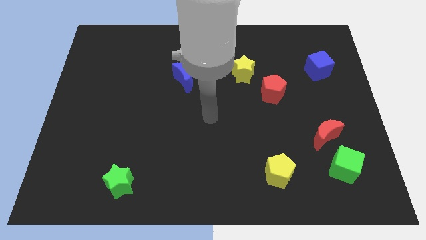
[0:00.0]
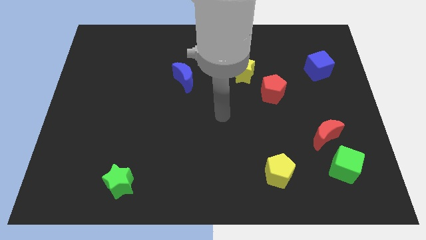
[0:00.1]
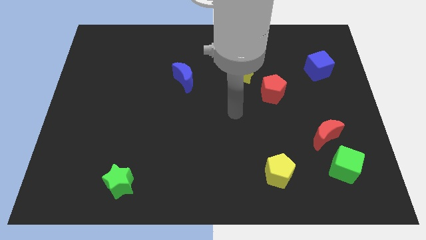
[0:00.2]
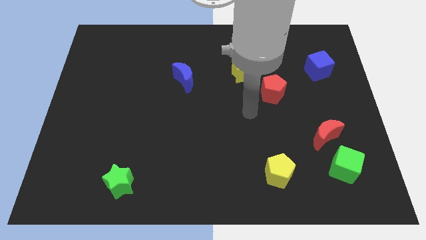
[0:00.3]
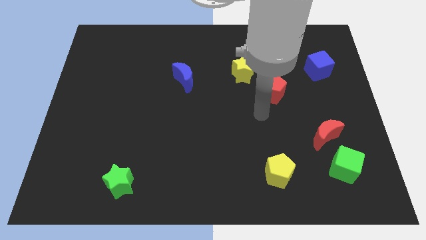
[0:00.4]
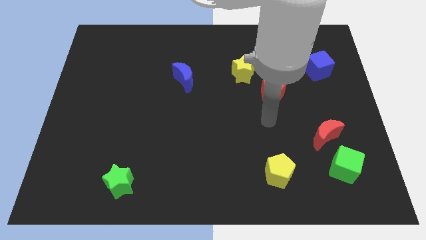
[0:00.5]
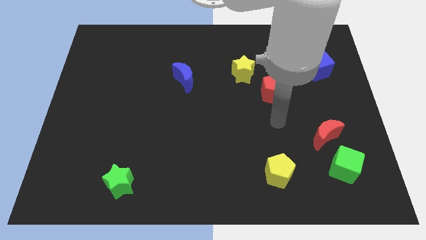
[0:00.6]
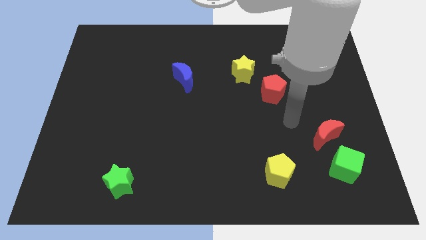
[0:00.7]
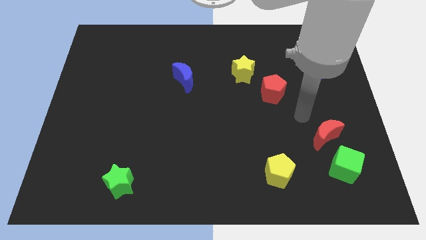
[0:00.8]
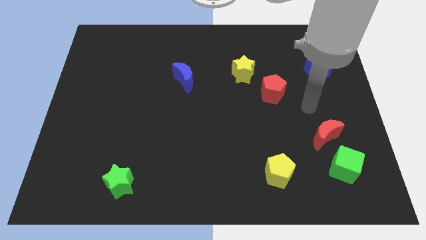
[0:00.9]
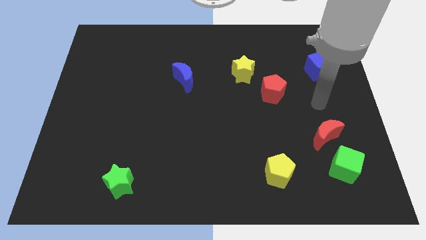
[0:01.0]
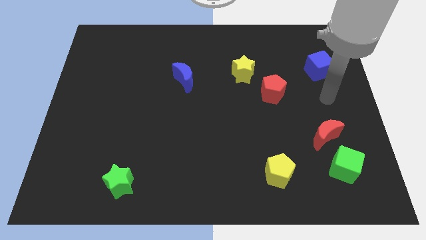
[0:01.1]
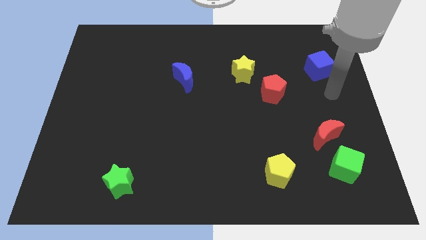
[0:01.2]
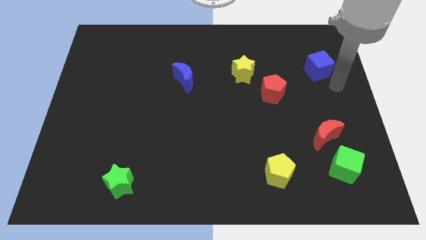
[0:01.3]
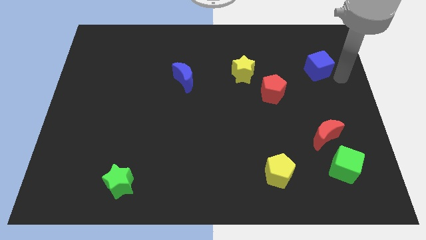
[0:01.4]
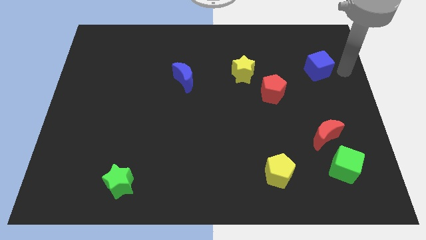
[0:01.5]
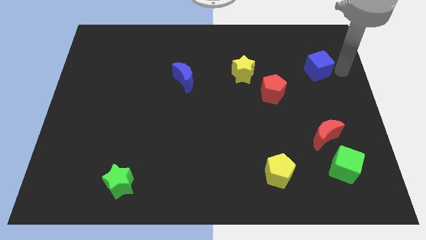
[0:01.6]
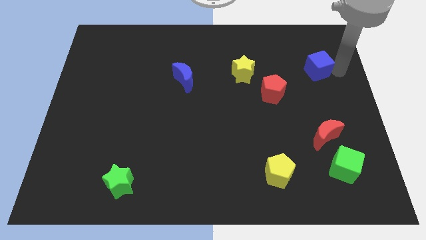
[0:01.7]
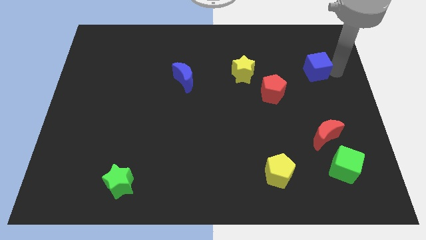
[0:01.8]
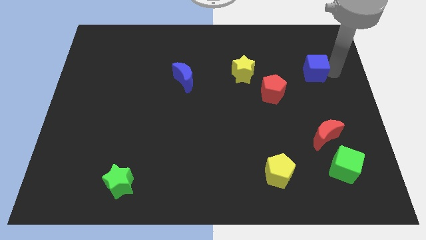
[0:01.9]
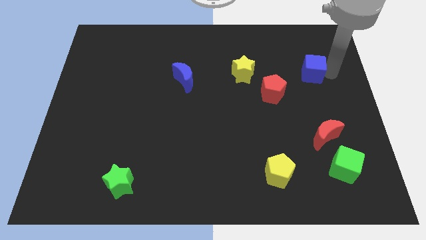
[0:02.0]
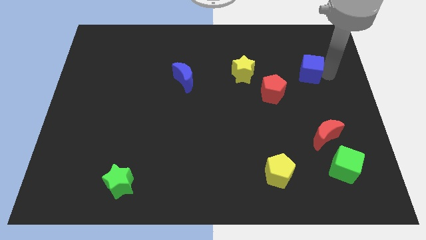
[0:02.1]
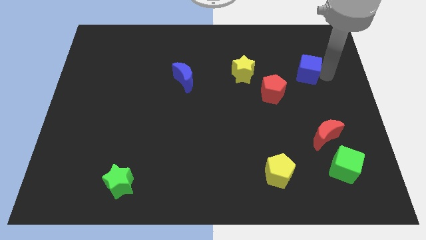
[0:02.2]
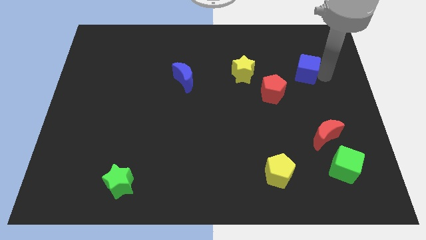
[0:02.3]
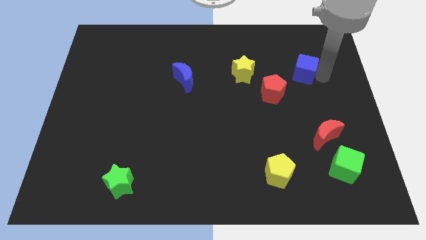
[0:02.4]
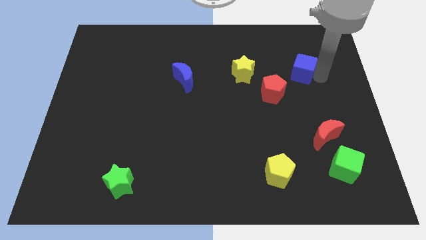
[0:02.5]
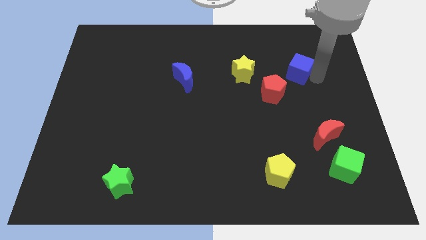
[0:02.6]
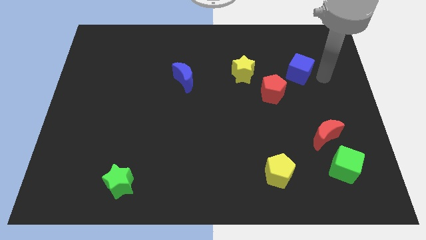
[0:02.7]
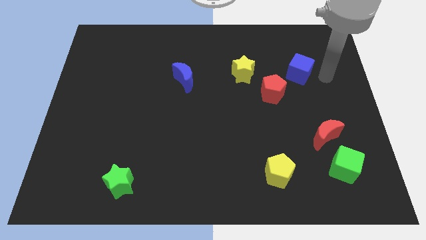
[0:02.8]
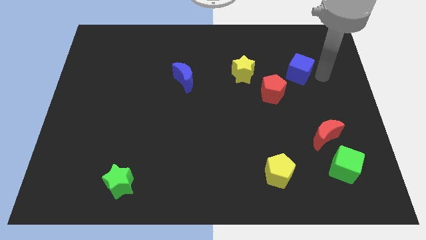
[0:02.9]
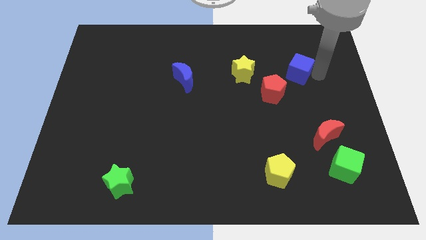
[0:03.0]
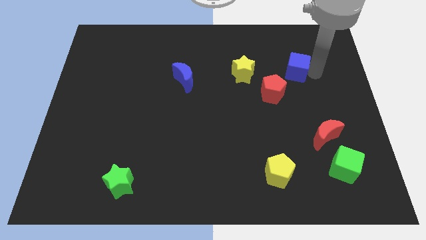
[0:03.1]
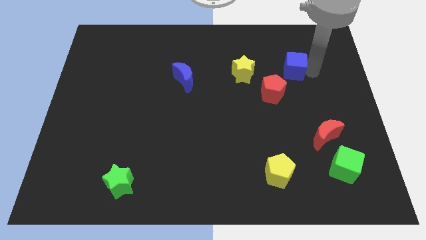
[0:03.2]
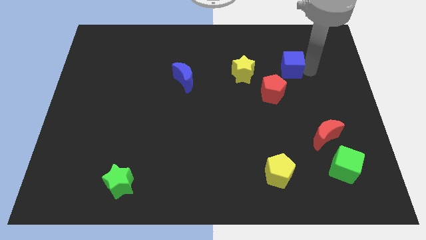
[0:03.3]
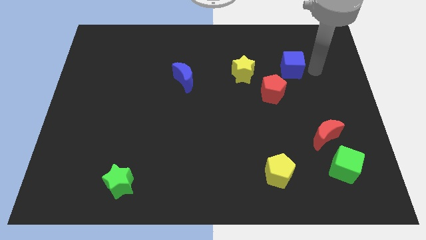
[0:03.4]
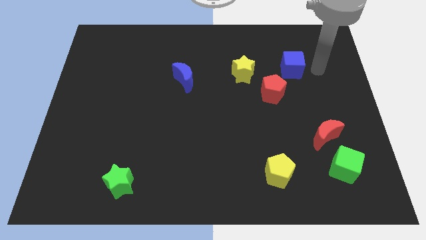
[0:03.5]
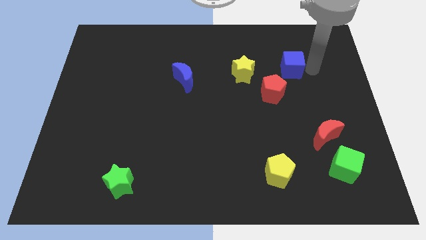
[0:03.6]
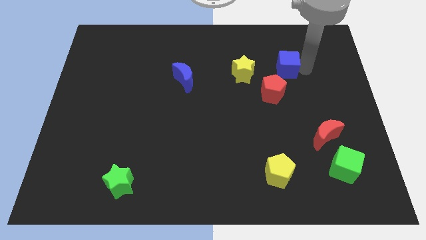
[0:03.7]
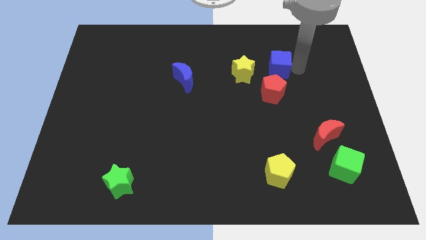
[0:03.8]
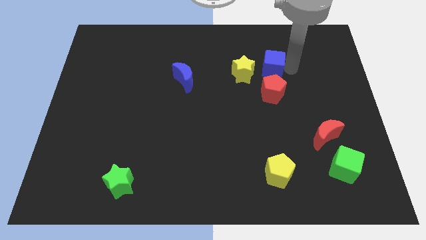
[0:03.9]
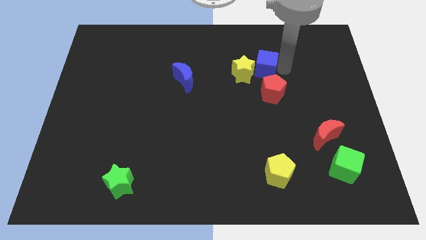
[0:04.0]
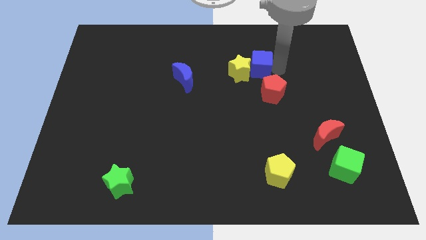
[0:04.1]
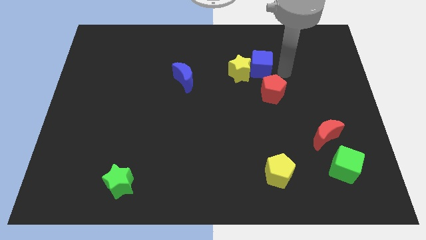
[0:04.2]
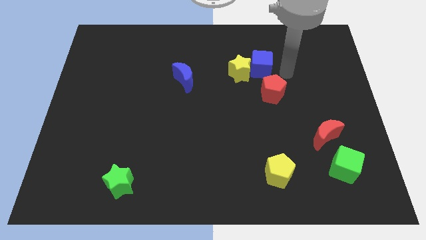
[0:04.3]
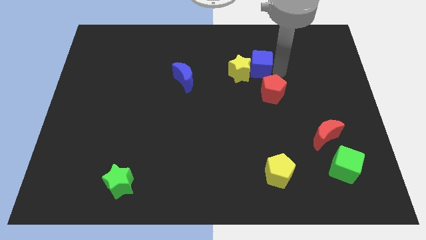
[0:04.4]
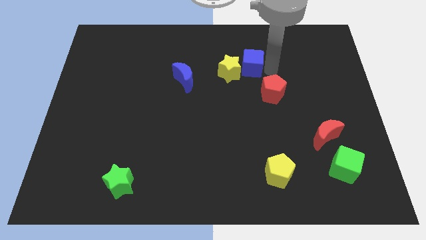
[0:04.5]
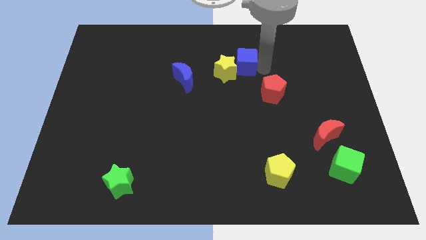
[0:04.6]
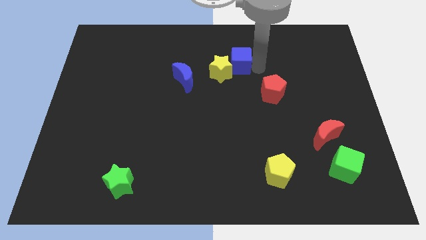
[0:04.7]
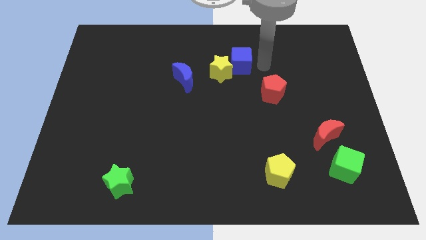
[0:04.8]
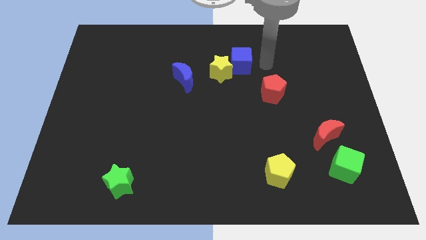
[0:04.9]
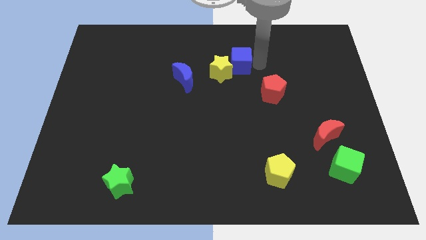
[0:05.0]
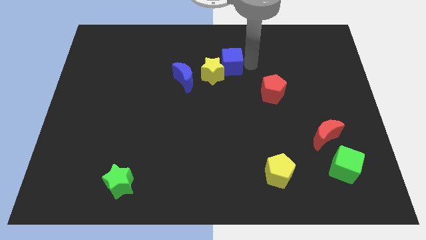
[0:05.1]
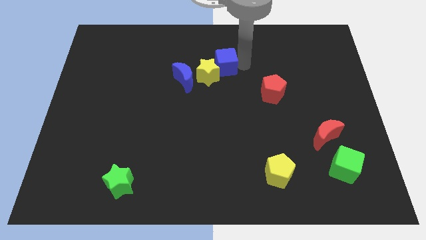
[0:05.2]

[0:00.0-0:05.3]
put the blue cube diagonally up and to the right of the blue moon

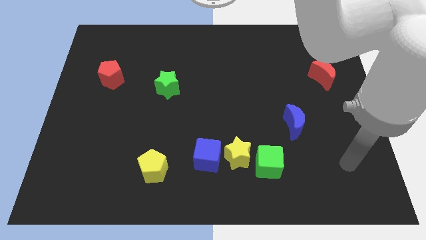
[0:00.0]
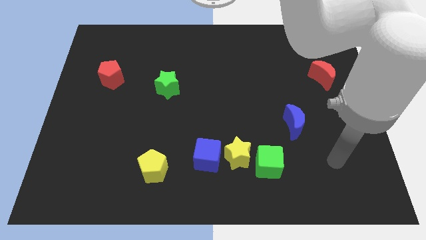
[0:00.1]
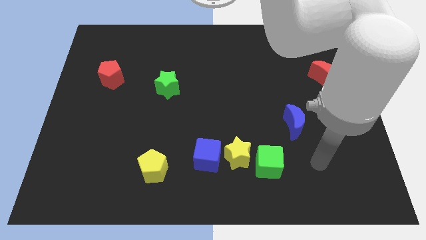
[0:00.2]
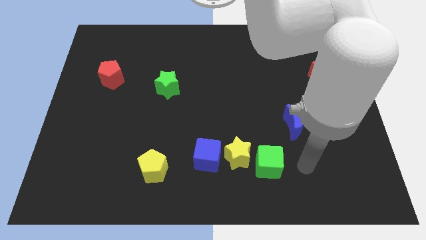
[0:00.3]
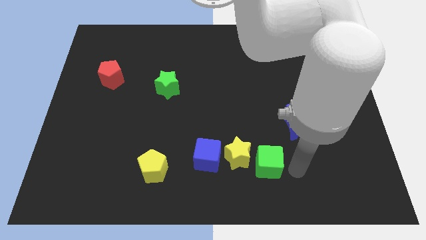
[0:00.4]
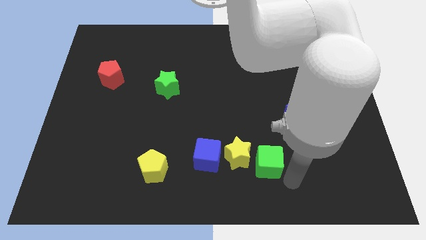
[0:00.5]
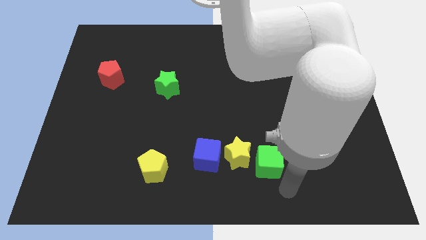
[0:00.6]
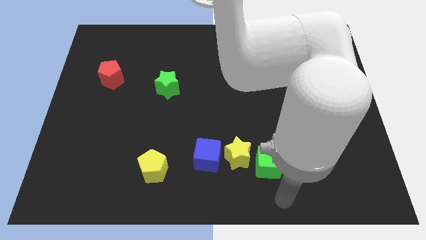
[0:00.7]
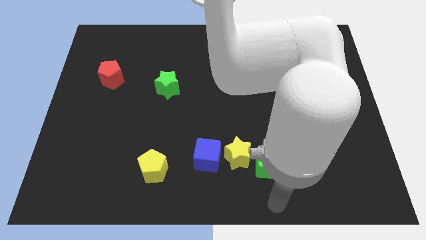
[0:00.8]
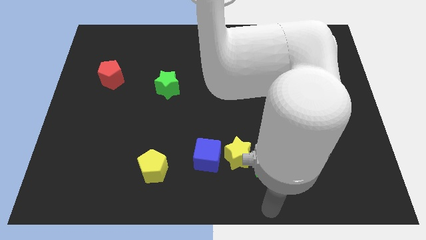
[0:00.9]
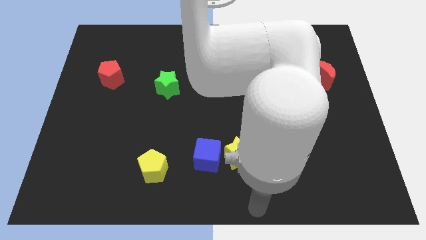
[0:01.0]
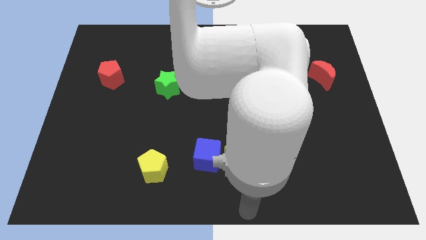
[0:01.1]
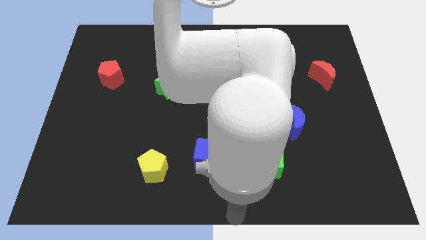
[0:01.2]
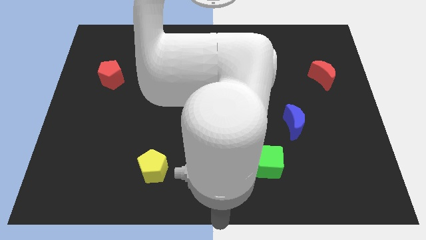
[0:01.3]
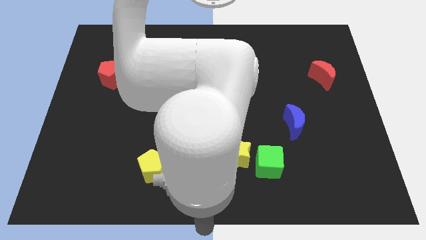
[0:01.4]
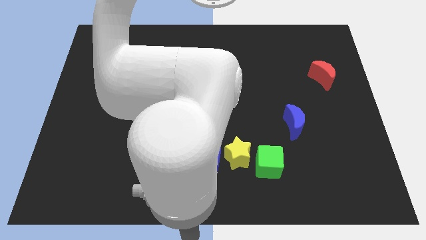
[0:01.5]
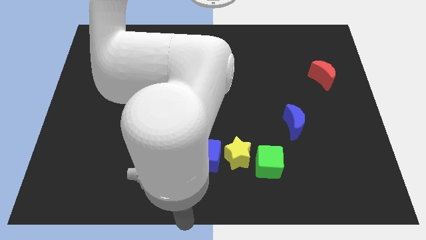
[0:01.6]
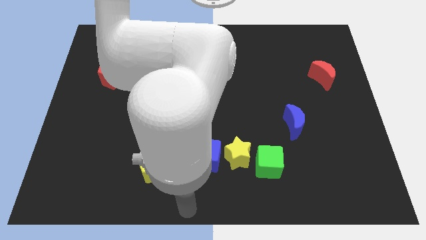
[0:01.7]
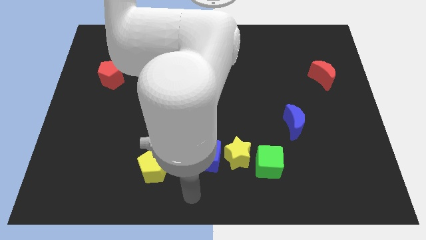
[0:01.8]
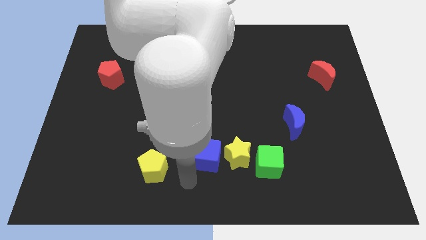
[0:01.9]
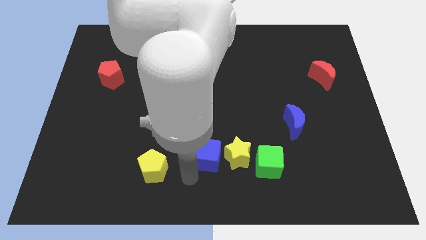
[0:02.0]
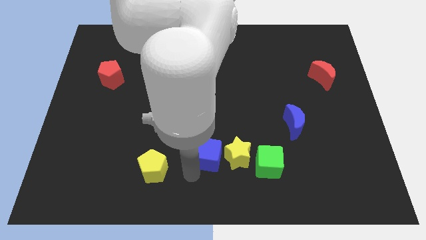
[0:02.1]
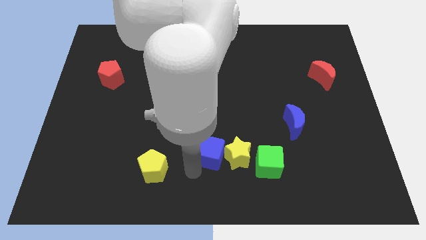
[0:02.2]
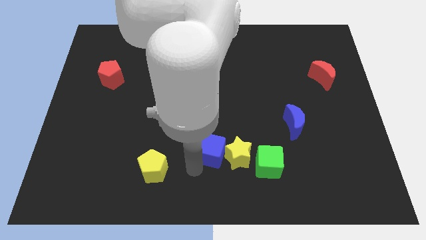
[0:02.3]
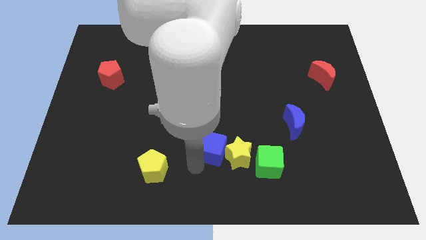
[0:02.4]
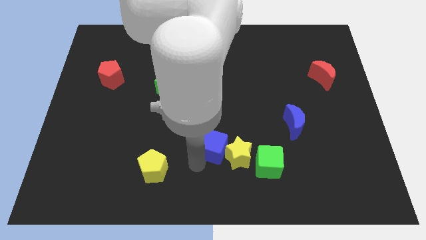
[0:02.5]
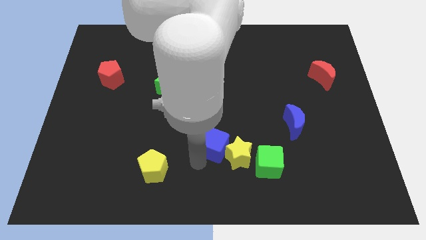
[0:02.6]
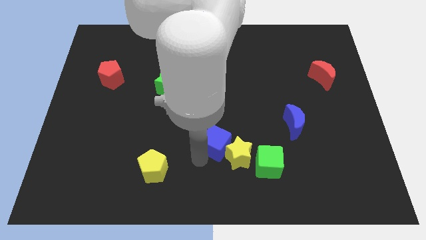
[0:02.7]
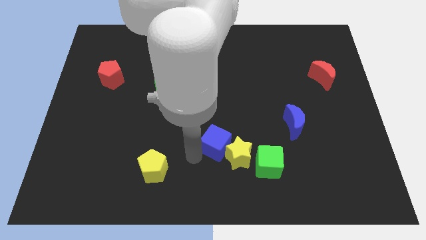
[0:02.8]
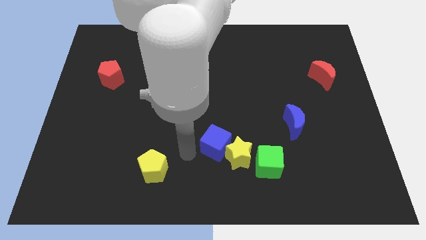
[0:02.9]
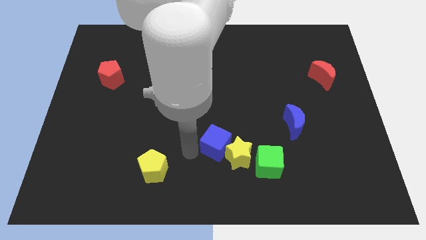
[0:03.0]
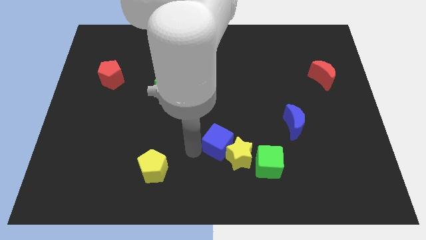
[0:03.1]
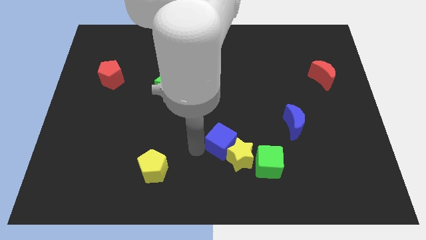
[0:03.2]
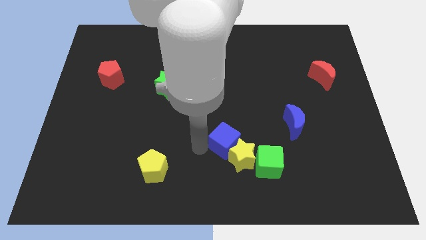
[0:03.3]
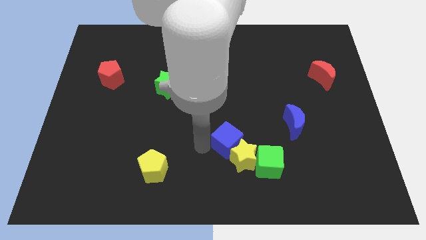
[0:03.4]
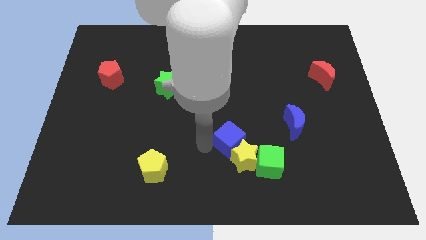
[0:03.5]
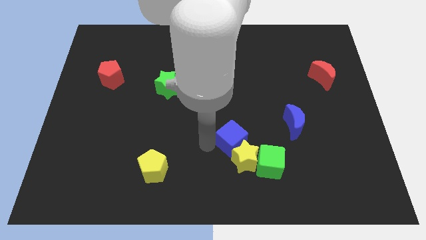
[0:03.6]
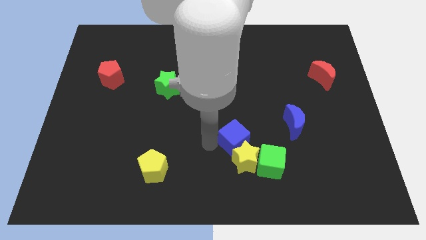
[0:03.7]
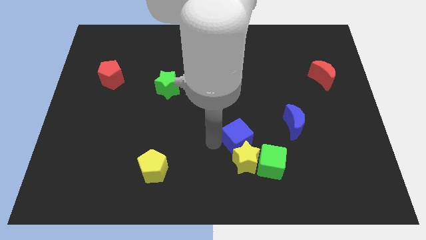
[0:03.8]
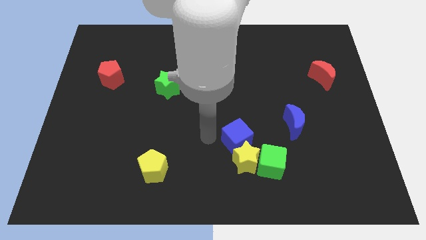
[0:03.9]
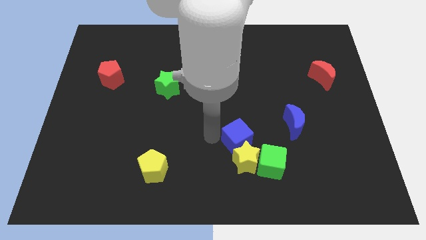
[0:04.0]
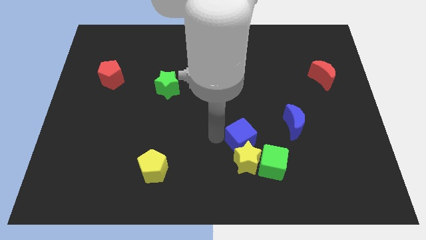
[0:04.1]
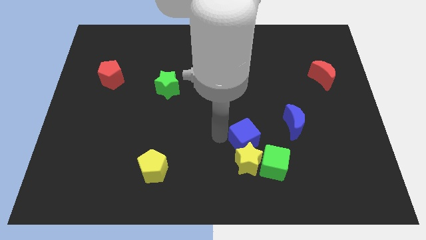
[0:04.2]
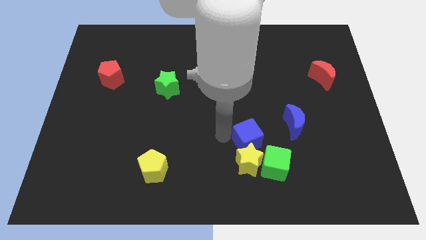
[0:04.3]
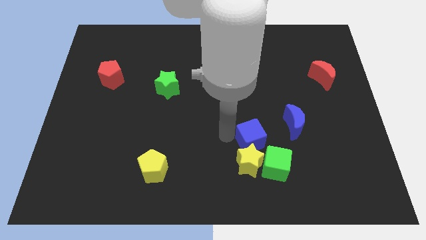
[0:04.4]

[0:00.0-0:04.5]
put the blue cube to the bottom left side of the blue moon
